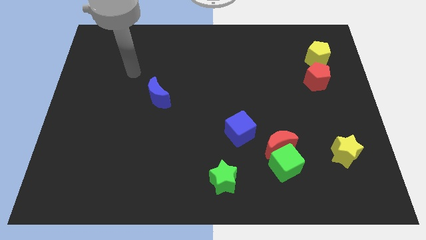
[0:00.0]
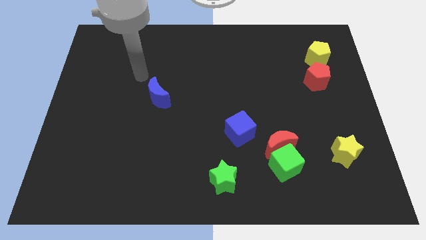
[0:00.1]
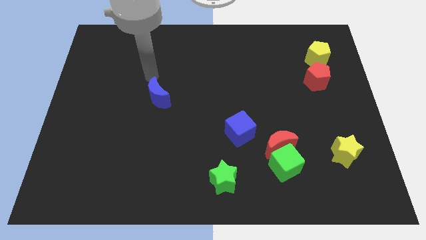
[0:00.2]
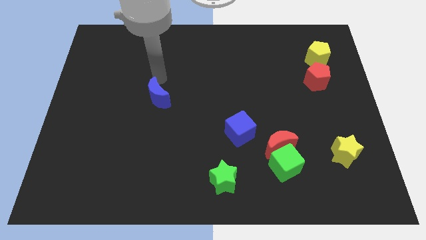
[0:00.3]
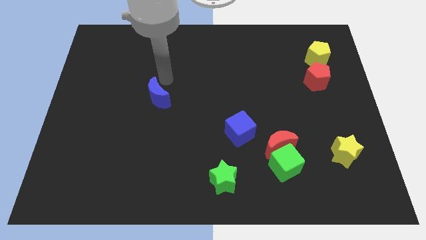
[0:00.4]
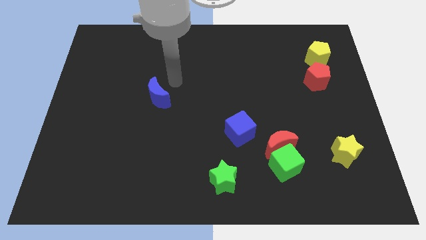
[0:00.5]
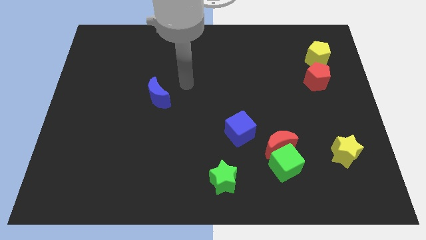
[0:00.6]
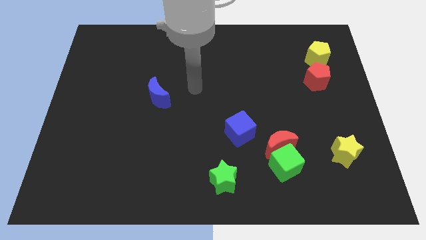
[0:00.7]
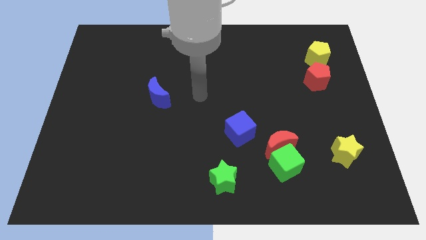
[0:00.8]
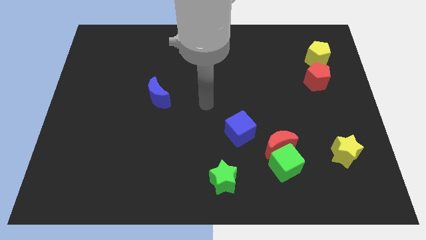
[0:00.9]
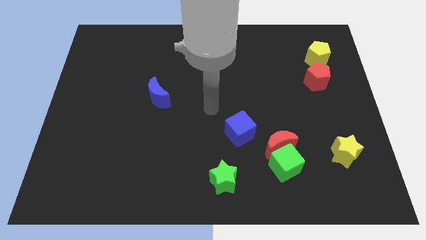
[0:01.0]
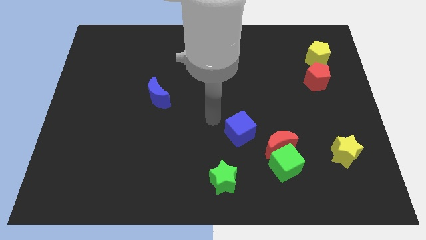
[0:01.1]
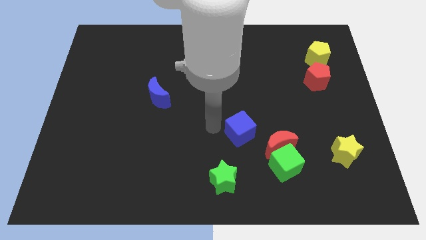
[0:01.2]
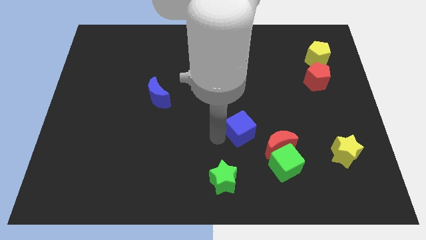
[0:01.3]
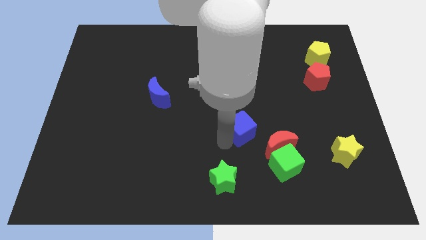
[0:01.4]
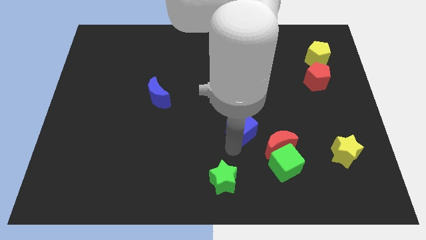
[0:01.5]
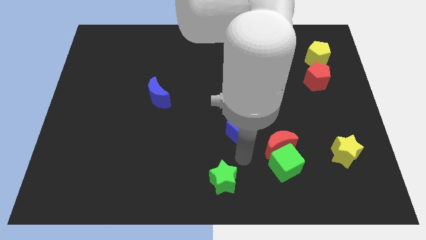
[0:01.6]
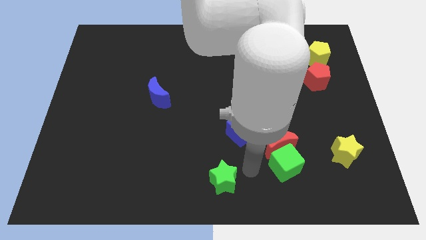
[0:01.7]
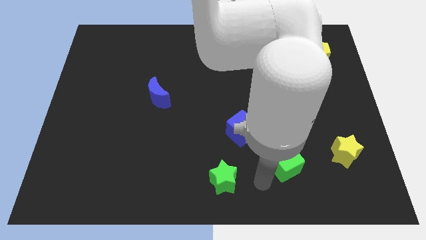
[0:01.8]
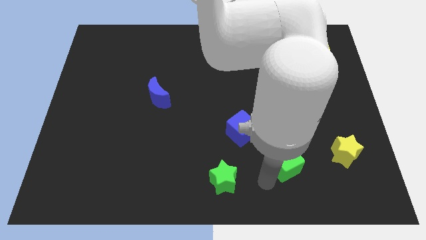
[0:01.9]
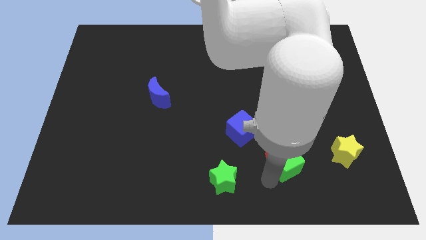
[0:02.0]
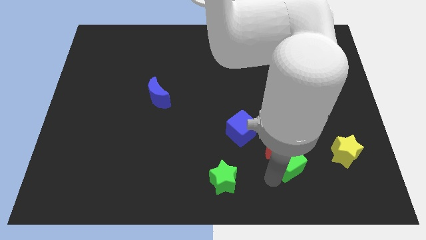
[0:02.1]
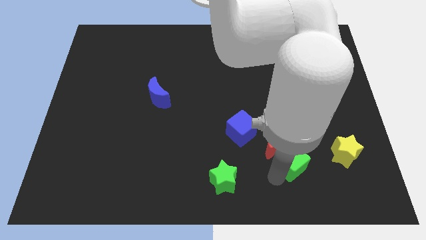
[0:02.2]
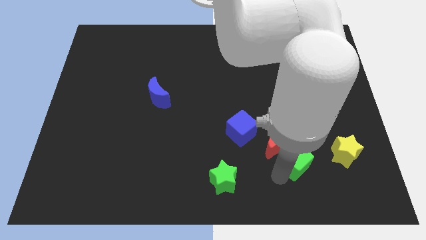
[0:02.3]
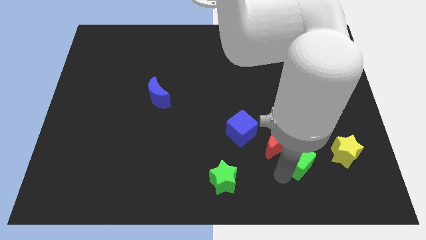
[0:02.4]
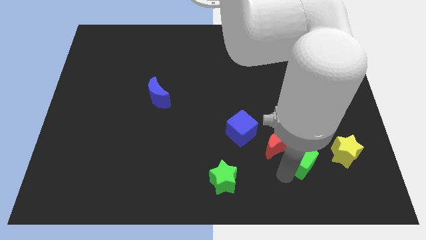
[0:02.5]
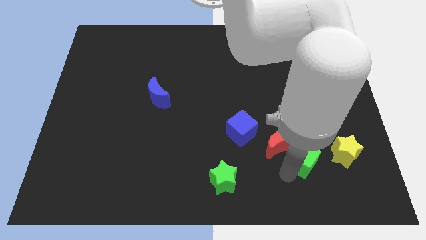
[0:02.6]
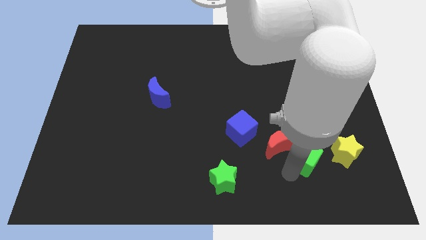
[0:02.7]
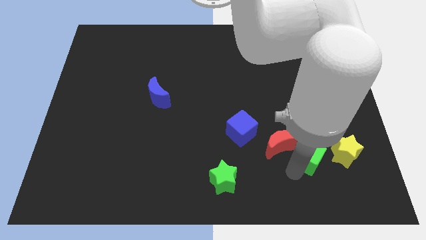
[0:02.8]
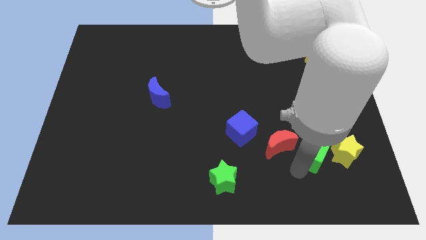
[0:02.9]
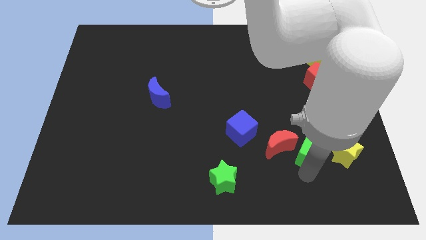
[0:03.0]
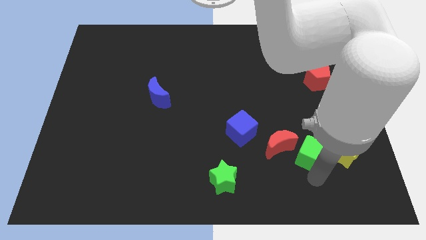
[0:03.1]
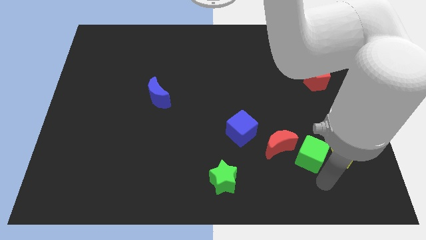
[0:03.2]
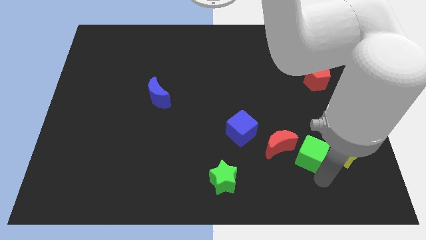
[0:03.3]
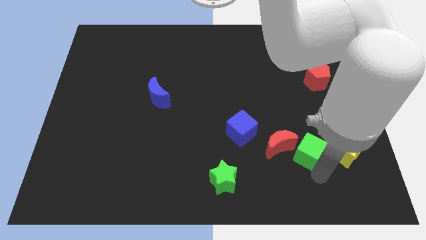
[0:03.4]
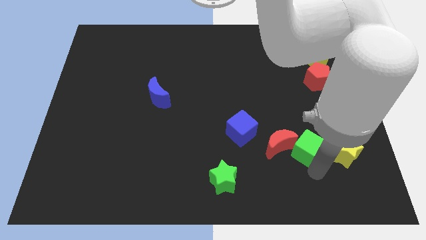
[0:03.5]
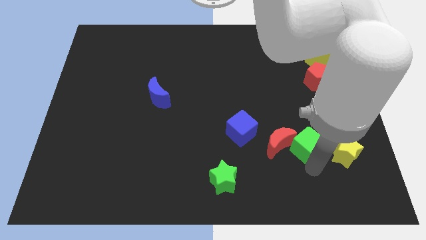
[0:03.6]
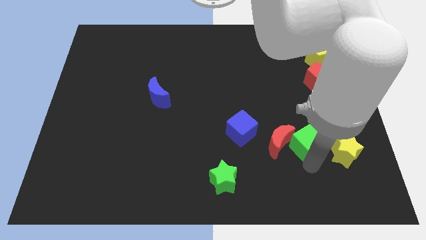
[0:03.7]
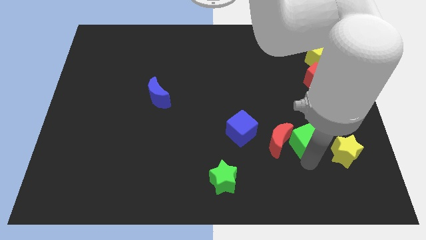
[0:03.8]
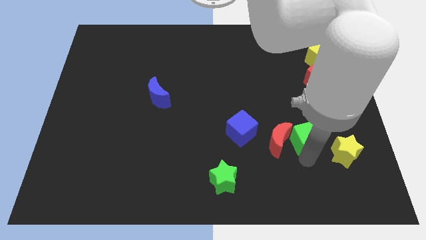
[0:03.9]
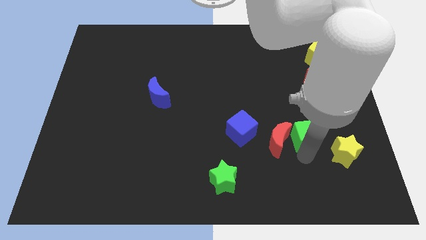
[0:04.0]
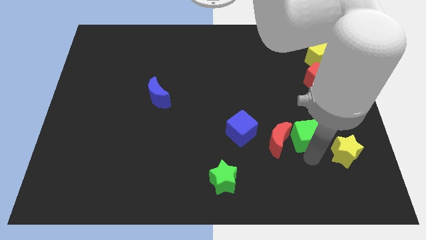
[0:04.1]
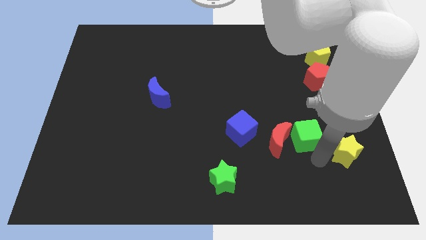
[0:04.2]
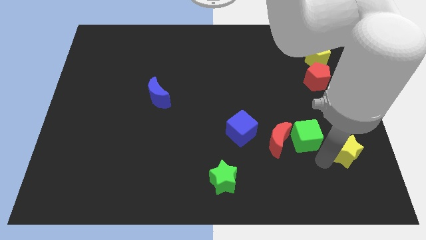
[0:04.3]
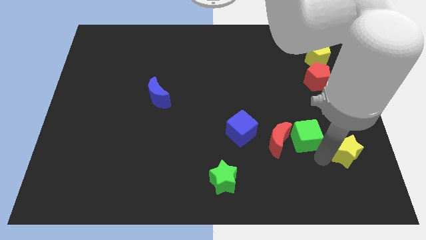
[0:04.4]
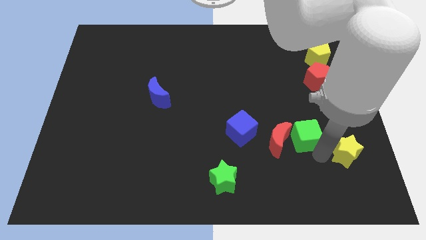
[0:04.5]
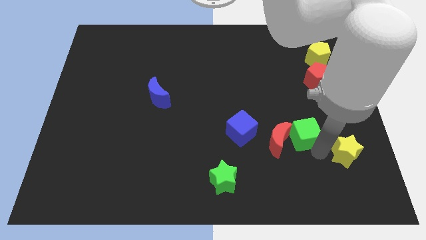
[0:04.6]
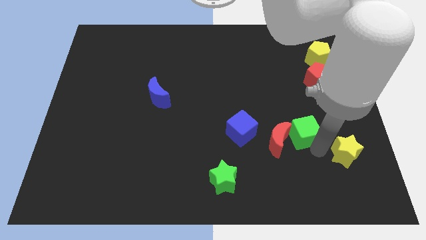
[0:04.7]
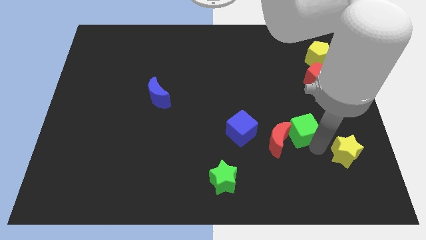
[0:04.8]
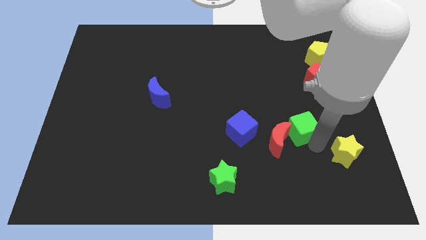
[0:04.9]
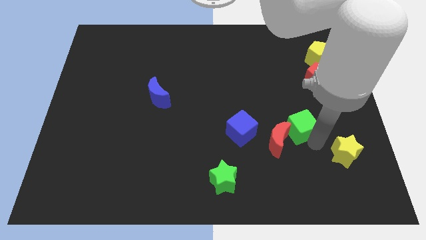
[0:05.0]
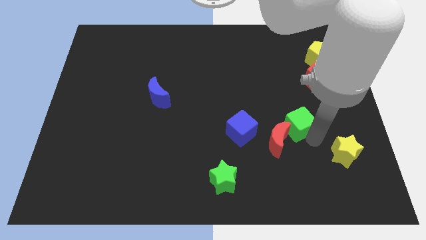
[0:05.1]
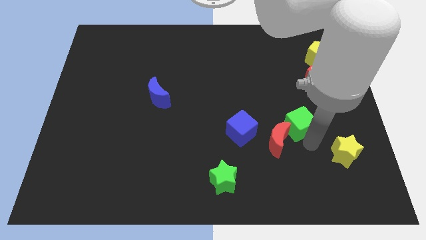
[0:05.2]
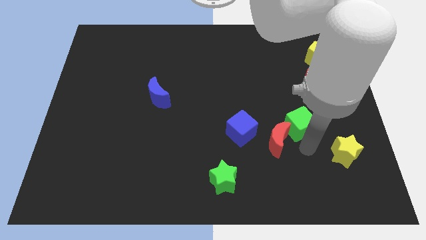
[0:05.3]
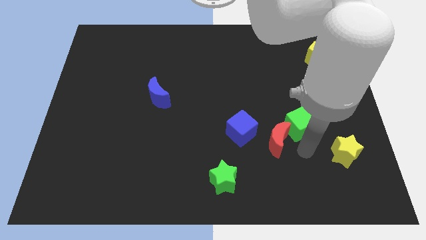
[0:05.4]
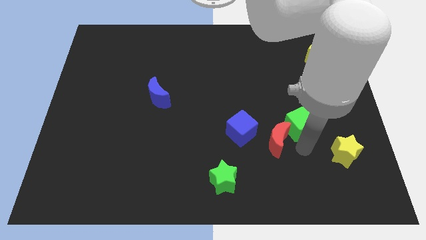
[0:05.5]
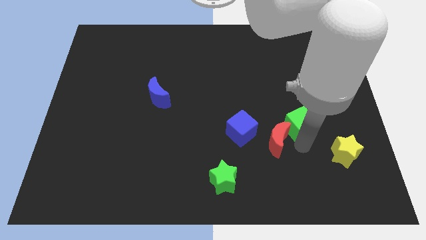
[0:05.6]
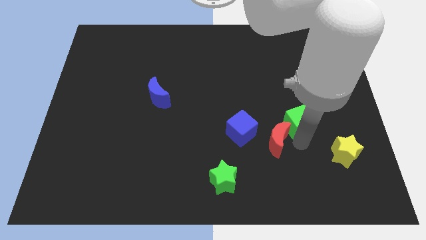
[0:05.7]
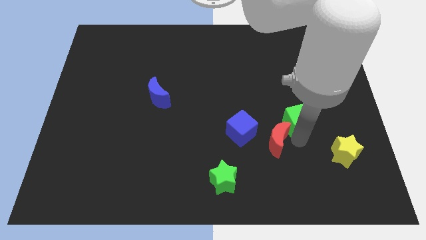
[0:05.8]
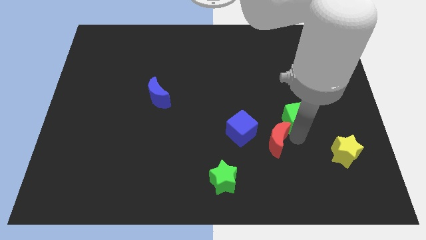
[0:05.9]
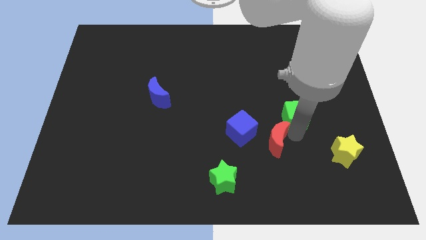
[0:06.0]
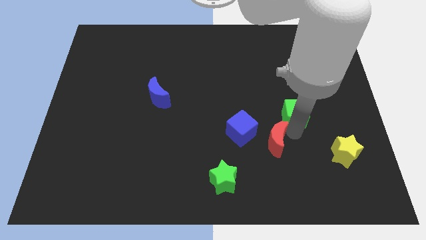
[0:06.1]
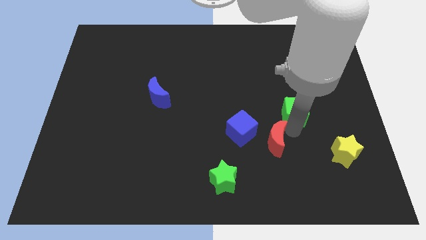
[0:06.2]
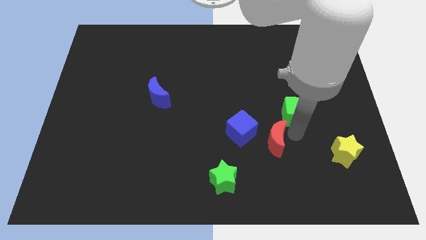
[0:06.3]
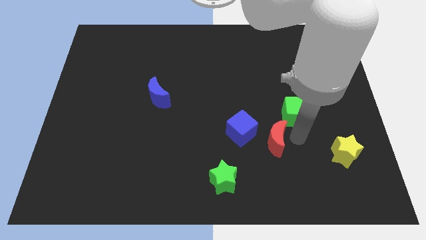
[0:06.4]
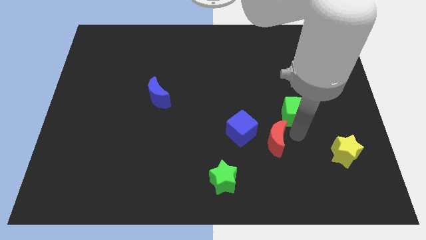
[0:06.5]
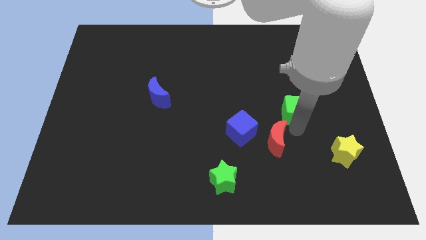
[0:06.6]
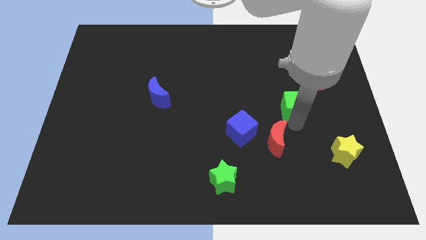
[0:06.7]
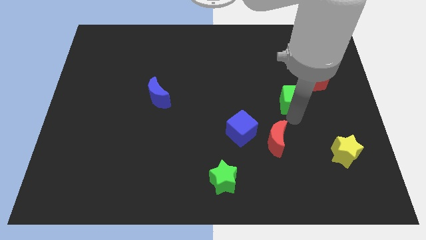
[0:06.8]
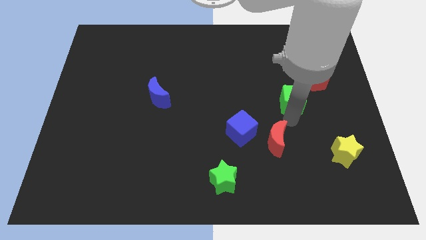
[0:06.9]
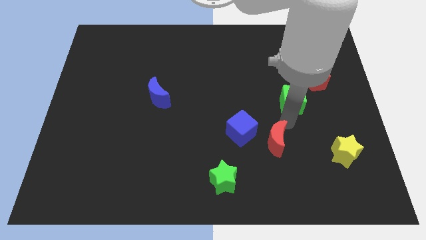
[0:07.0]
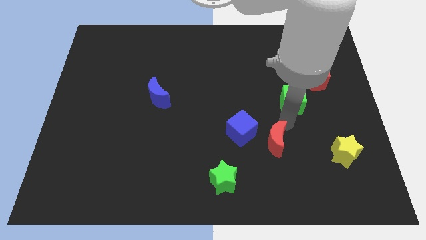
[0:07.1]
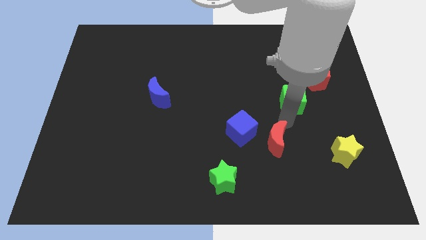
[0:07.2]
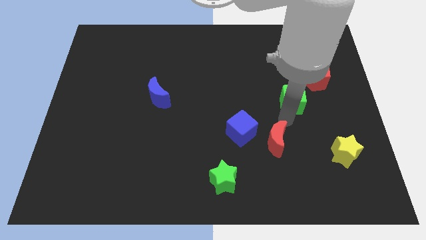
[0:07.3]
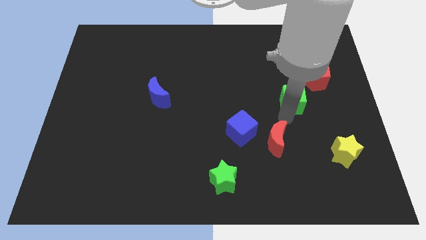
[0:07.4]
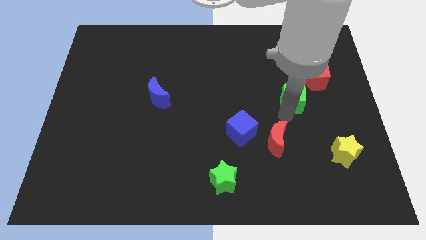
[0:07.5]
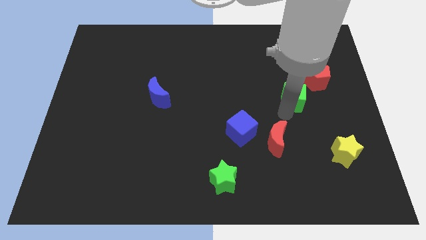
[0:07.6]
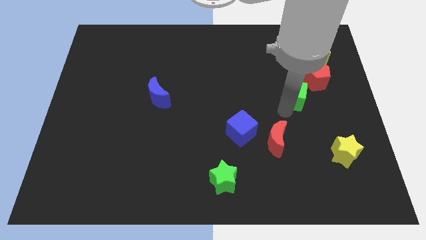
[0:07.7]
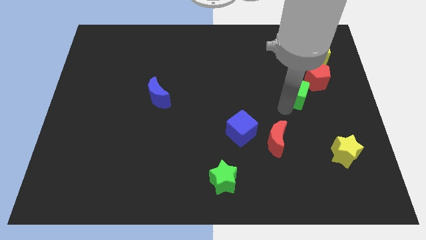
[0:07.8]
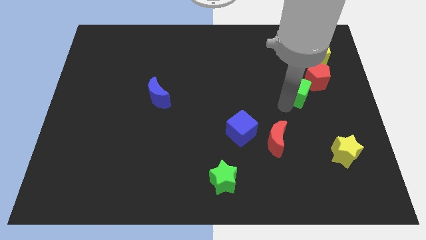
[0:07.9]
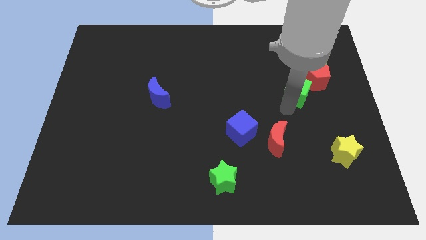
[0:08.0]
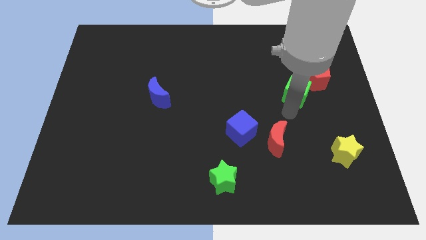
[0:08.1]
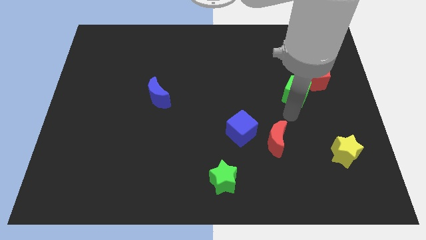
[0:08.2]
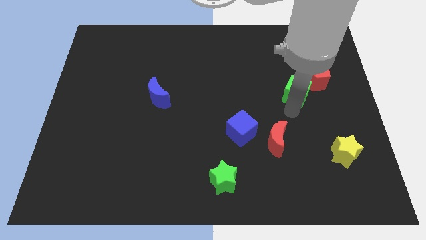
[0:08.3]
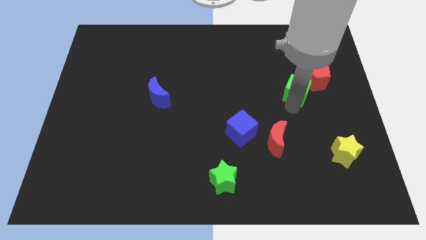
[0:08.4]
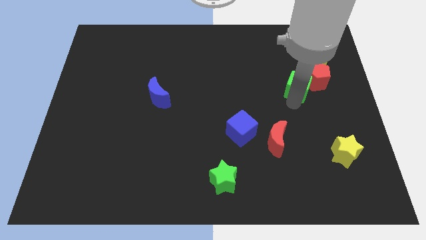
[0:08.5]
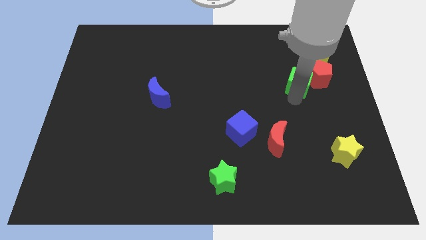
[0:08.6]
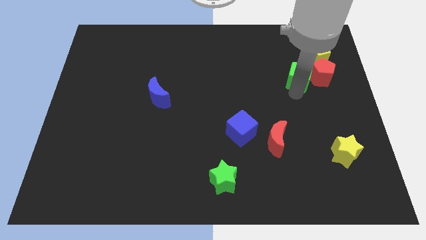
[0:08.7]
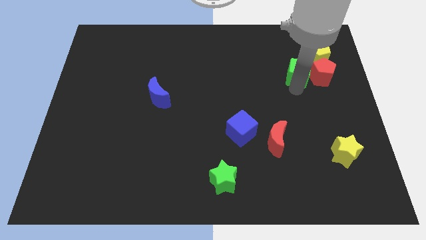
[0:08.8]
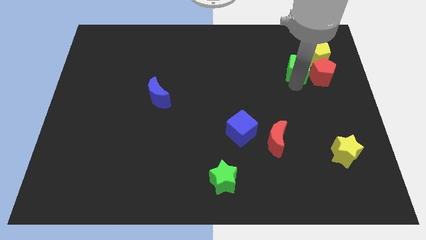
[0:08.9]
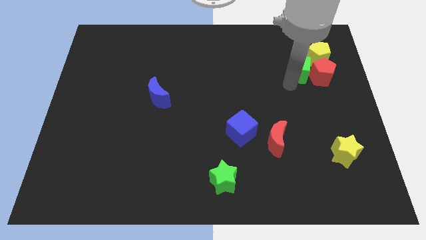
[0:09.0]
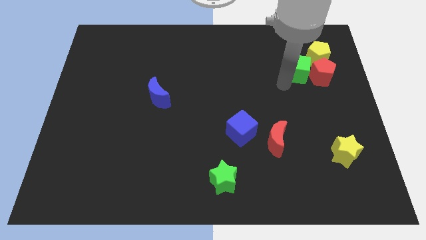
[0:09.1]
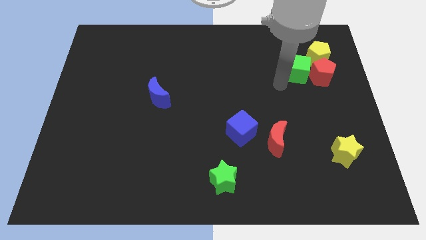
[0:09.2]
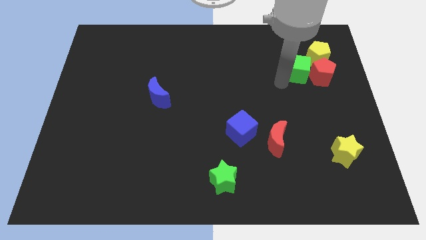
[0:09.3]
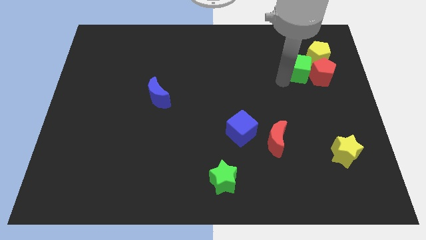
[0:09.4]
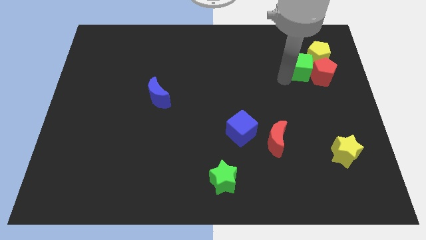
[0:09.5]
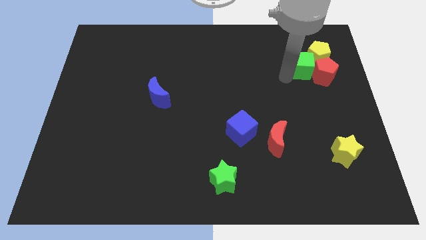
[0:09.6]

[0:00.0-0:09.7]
put the green cube towards the yellow pentagon
